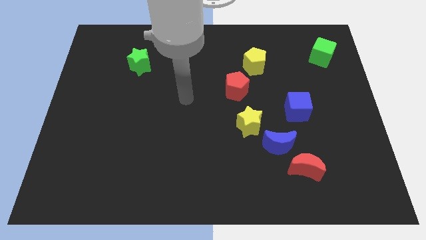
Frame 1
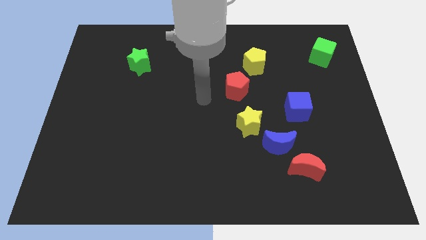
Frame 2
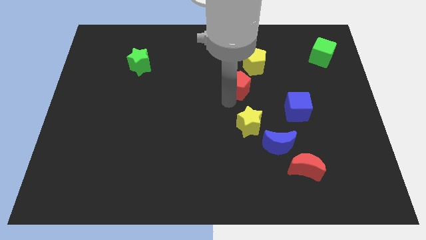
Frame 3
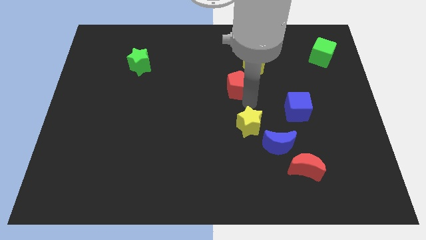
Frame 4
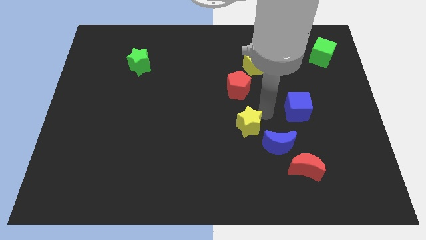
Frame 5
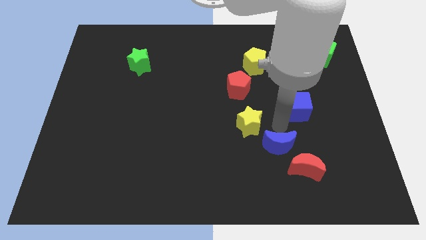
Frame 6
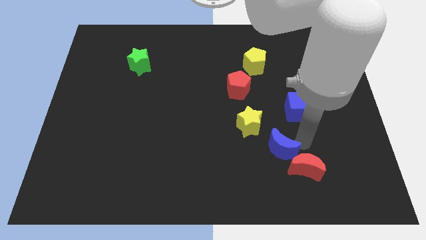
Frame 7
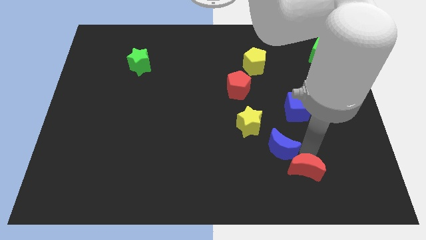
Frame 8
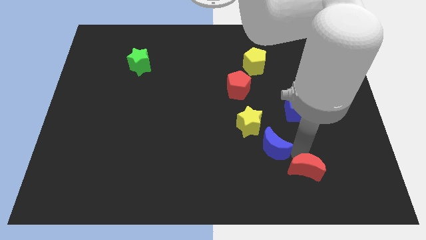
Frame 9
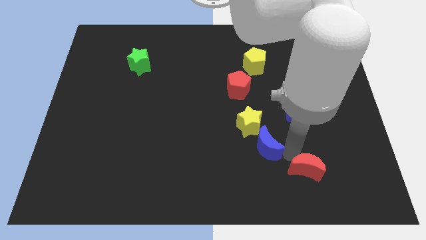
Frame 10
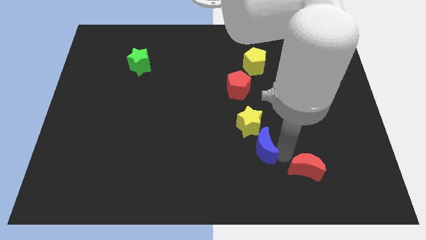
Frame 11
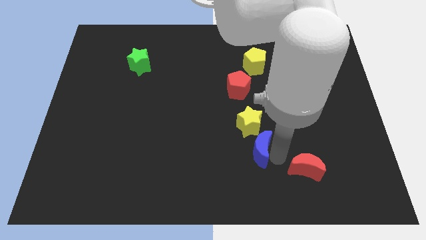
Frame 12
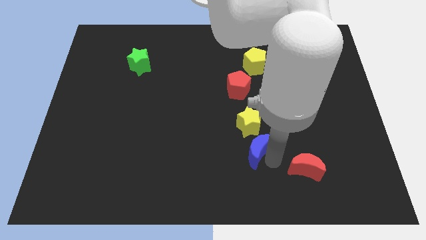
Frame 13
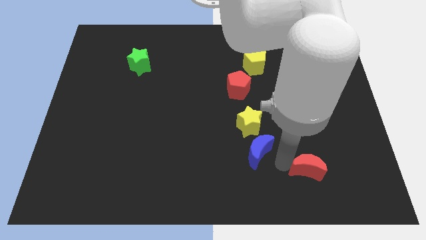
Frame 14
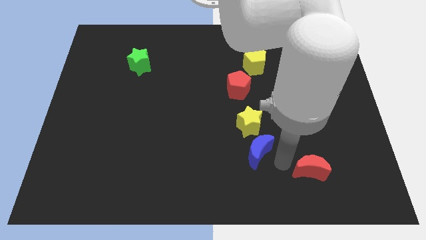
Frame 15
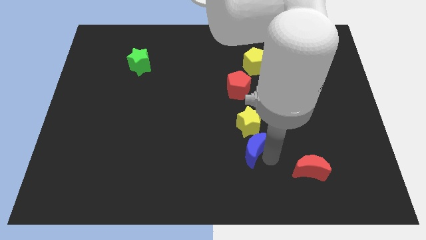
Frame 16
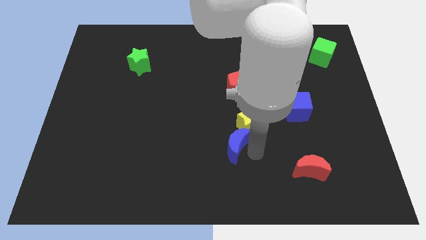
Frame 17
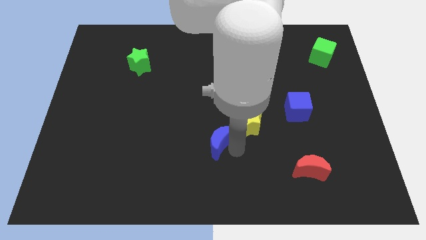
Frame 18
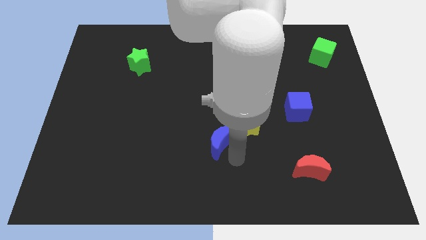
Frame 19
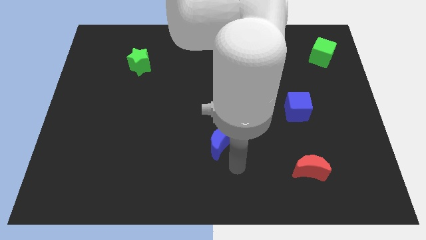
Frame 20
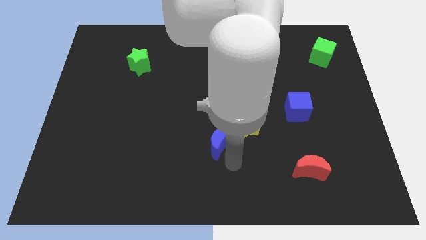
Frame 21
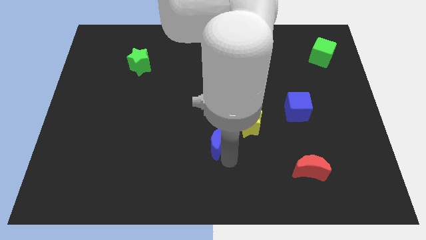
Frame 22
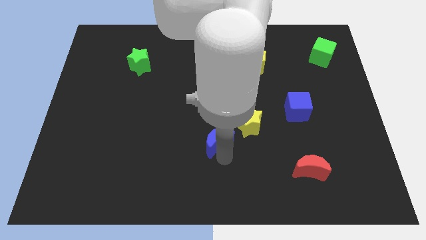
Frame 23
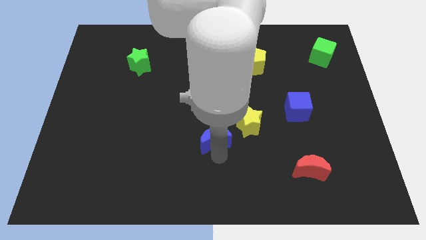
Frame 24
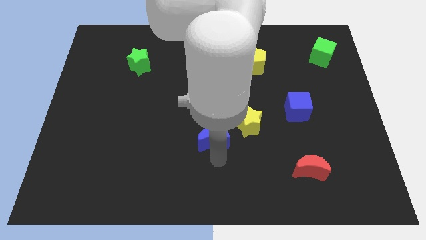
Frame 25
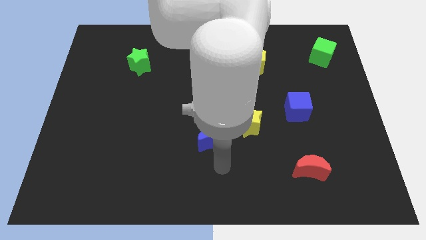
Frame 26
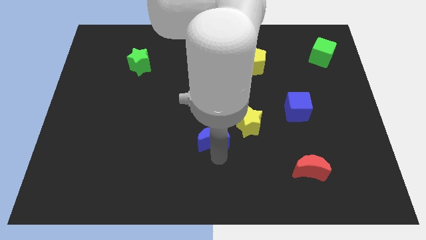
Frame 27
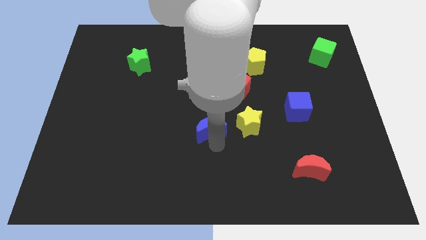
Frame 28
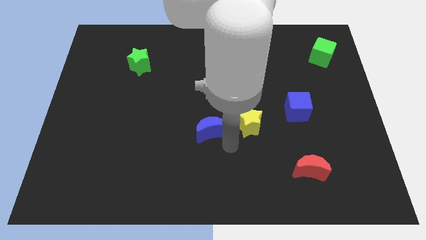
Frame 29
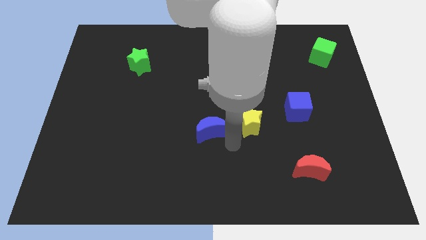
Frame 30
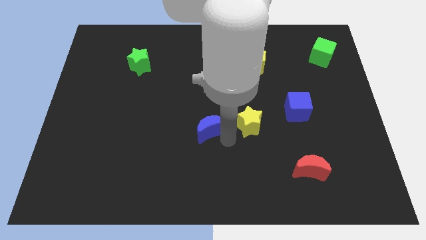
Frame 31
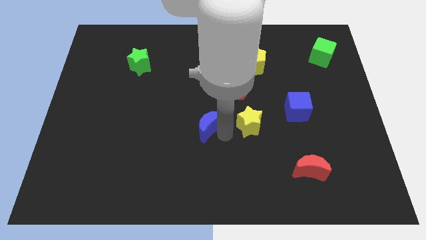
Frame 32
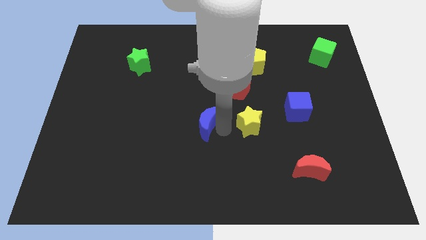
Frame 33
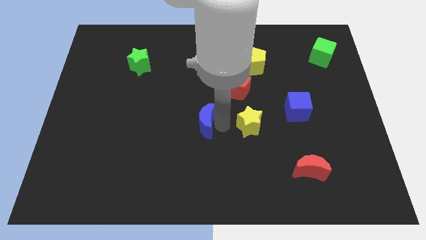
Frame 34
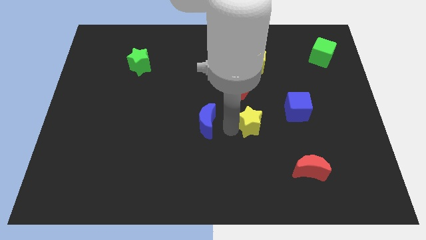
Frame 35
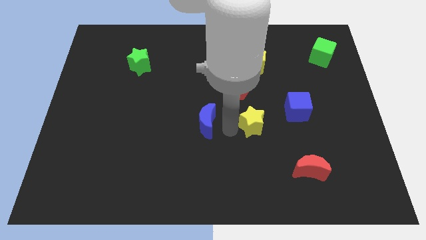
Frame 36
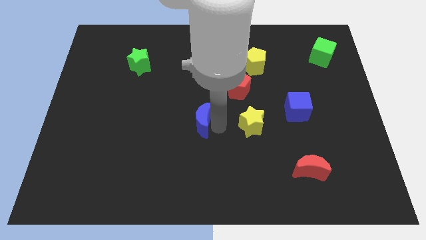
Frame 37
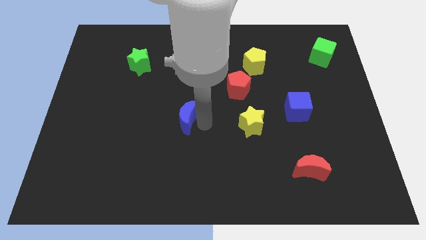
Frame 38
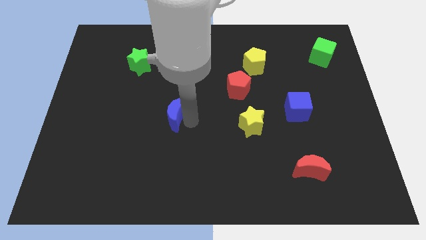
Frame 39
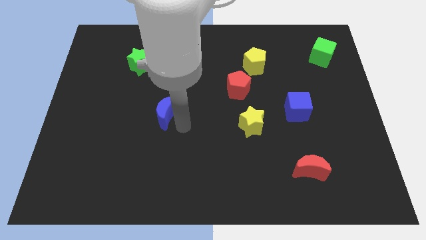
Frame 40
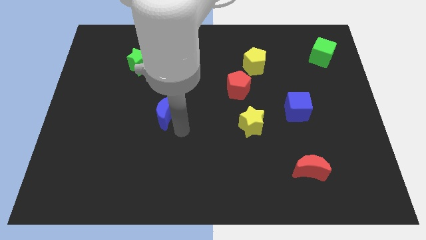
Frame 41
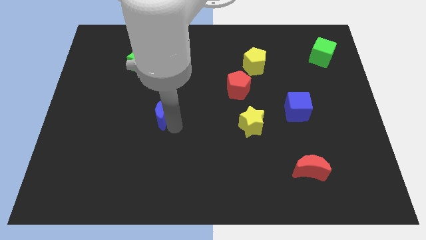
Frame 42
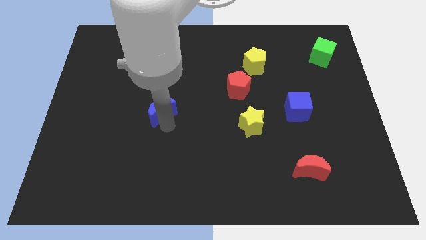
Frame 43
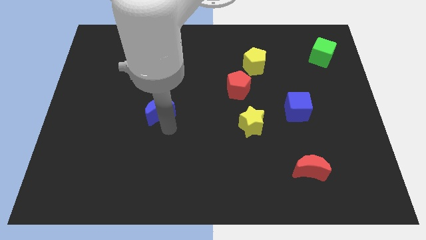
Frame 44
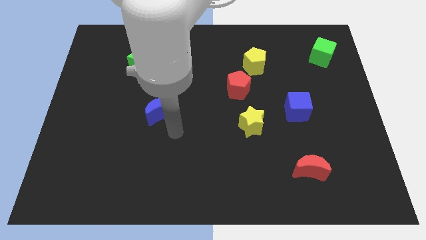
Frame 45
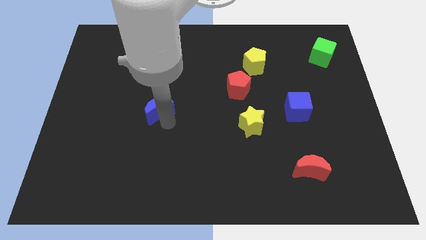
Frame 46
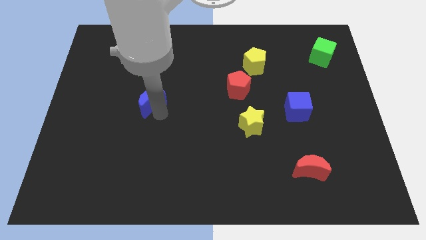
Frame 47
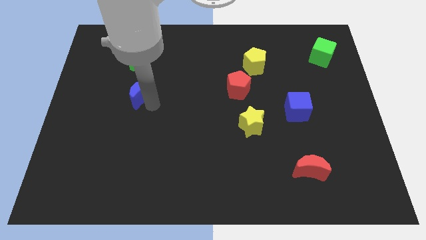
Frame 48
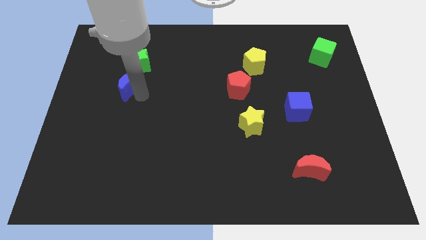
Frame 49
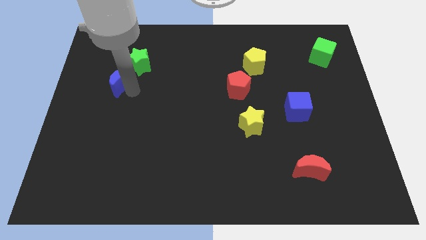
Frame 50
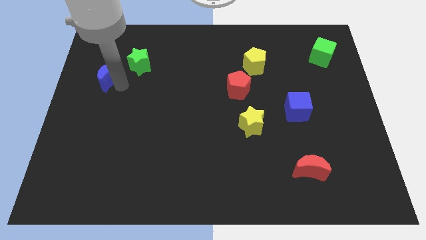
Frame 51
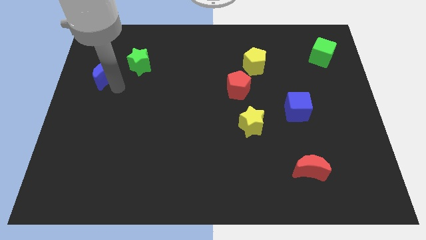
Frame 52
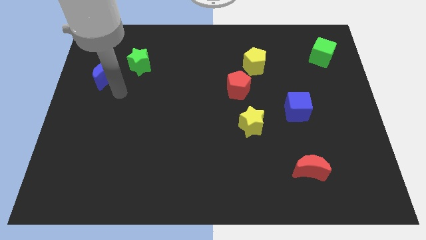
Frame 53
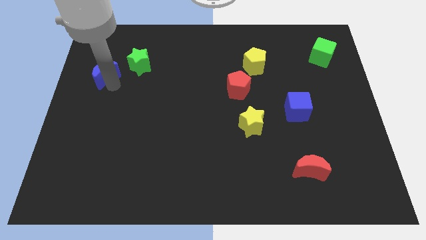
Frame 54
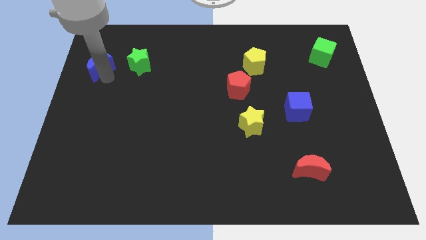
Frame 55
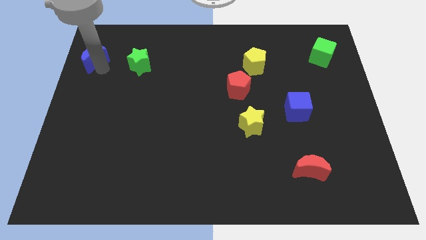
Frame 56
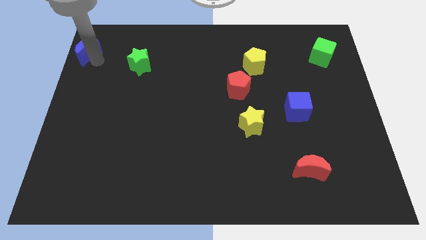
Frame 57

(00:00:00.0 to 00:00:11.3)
slide the blue moon to the top left corner

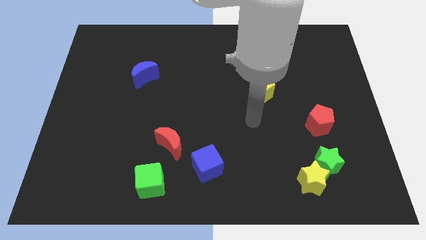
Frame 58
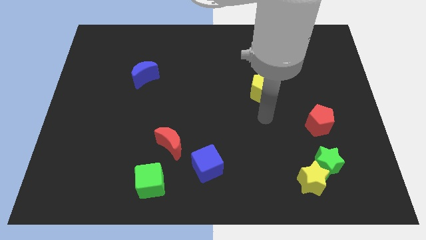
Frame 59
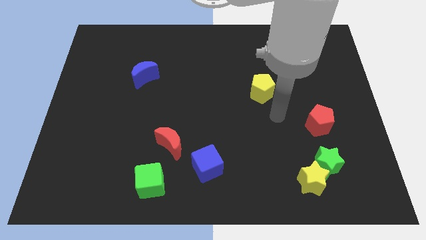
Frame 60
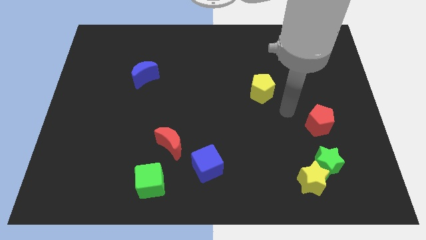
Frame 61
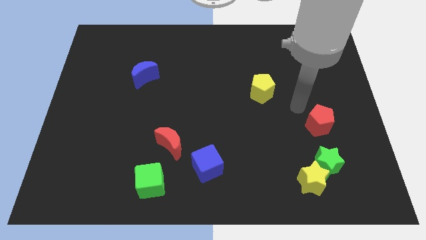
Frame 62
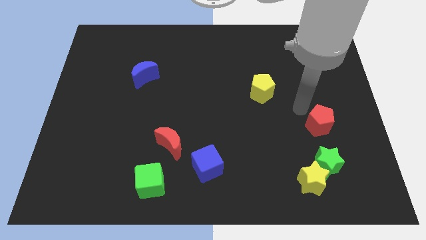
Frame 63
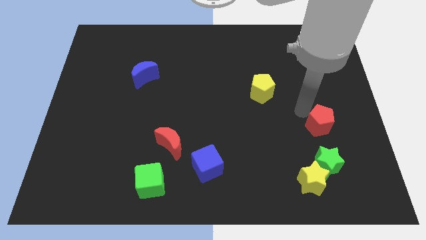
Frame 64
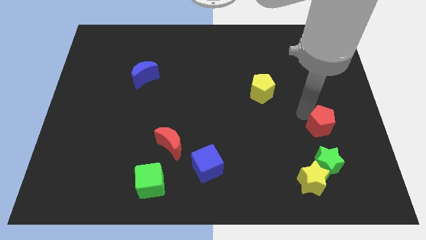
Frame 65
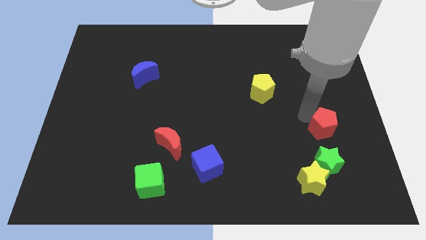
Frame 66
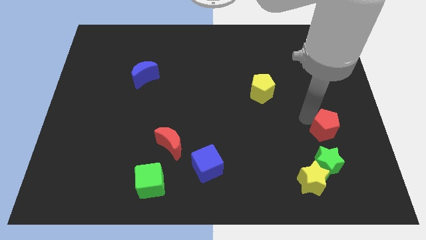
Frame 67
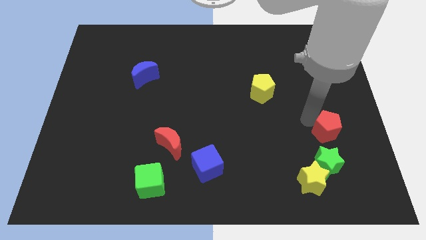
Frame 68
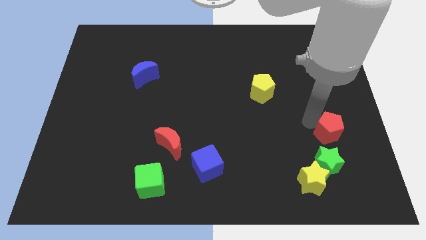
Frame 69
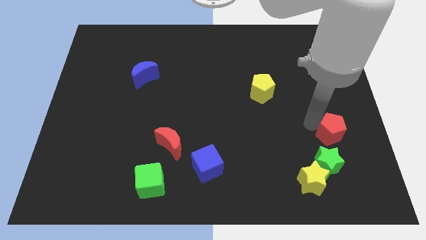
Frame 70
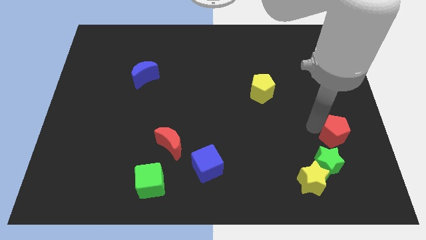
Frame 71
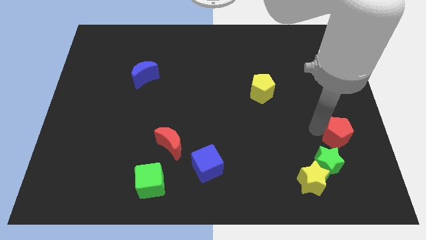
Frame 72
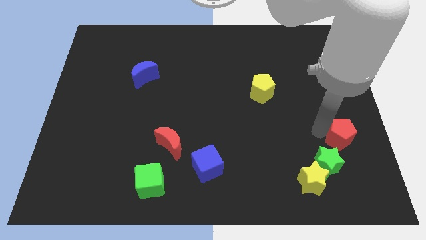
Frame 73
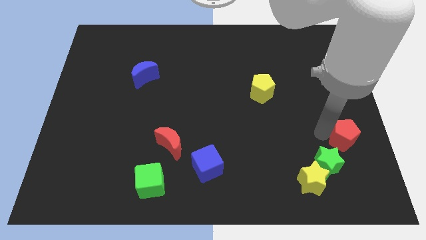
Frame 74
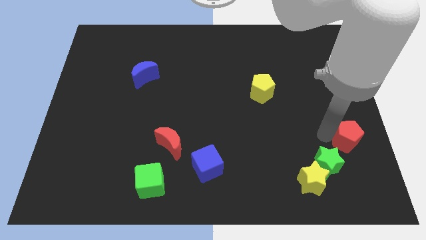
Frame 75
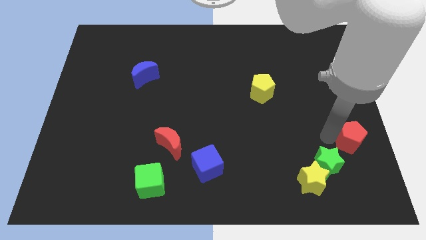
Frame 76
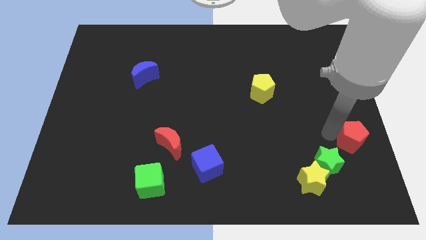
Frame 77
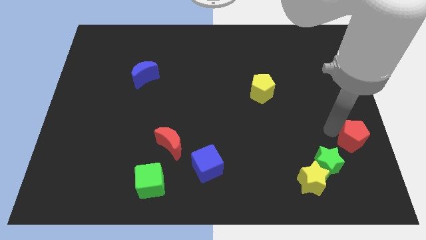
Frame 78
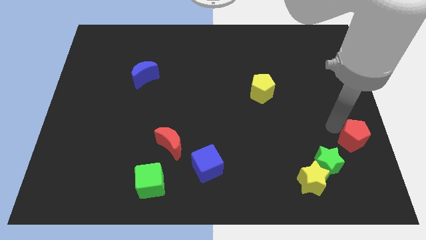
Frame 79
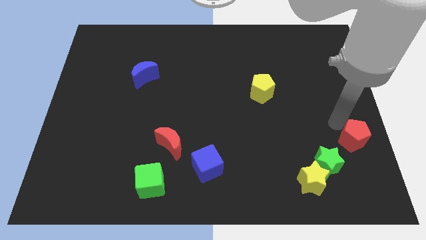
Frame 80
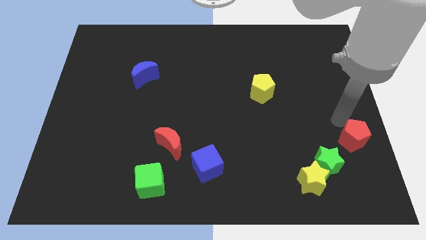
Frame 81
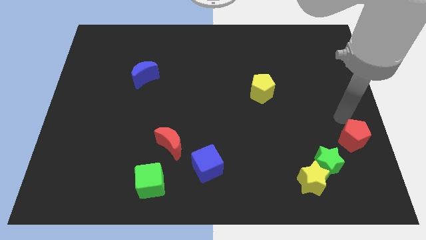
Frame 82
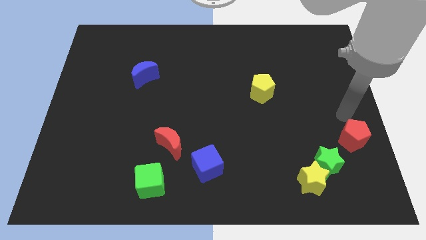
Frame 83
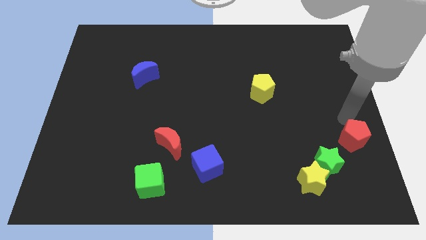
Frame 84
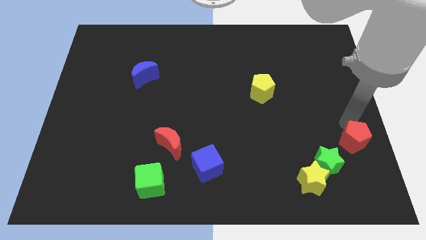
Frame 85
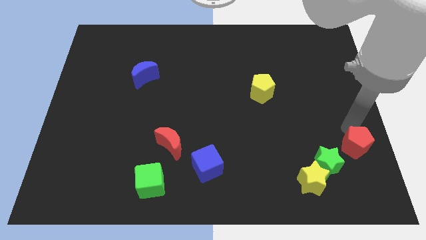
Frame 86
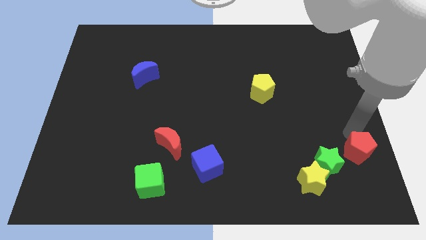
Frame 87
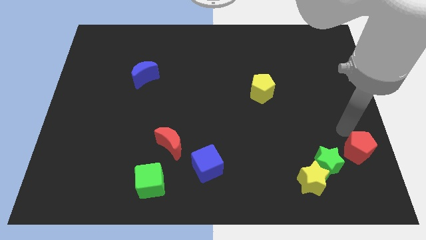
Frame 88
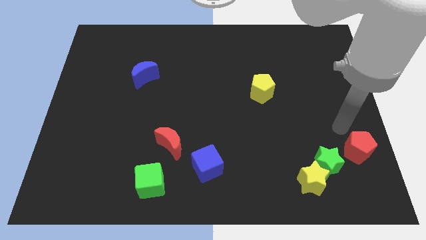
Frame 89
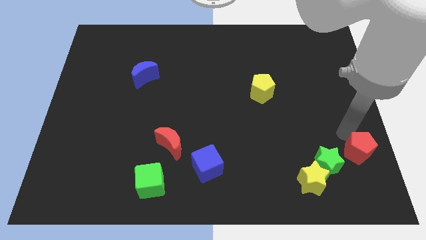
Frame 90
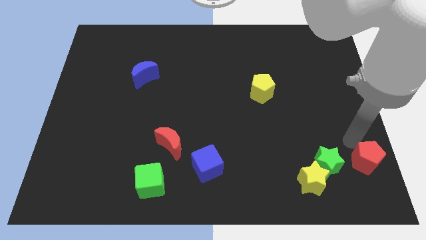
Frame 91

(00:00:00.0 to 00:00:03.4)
move the red pentagon to the bottom right corner
